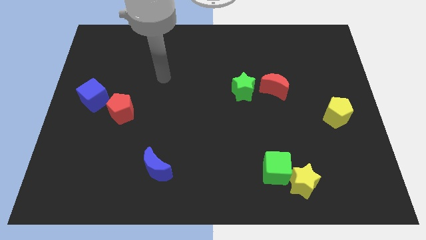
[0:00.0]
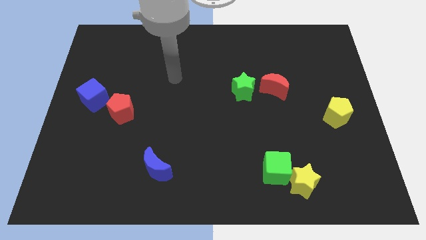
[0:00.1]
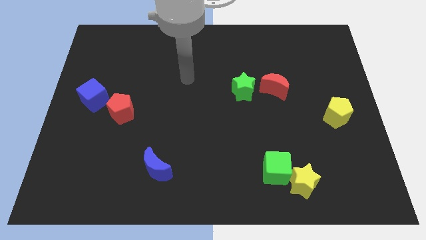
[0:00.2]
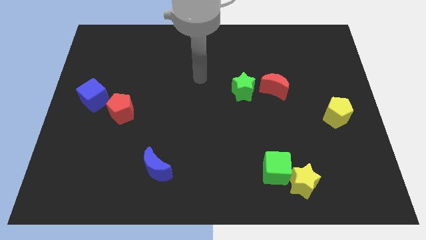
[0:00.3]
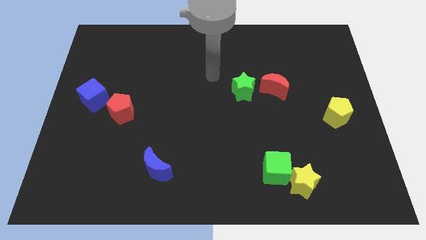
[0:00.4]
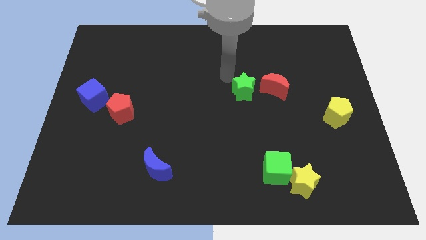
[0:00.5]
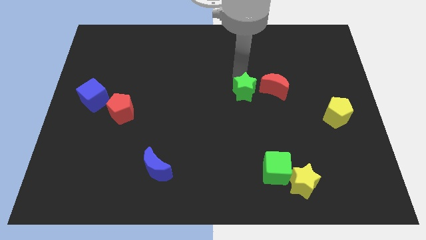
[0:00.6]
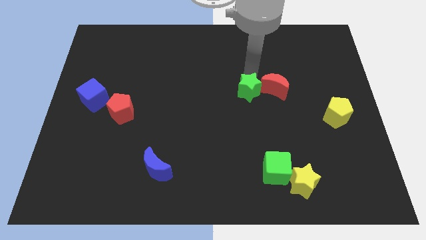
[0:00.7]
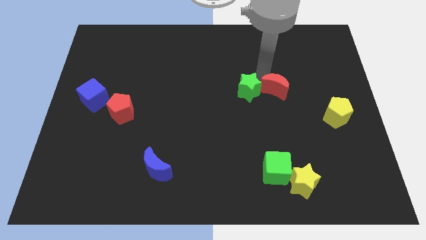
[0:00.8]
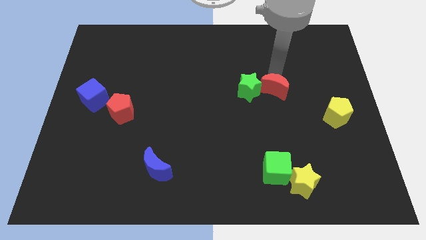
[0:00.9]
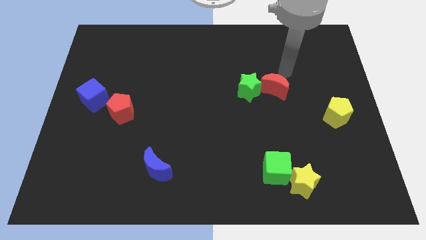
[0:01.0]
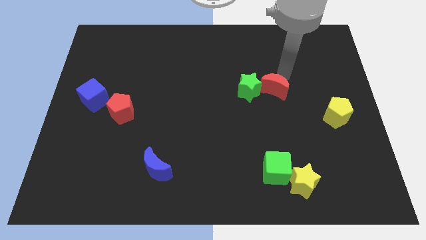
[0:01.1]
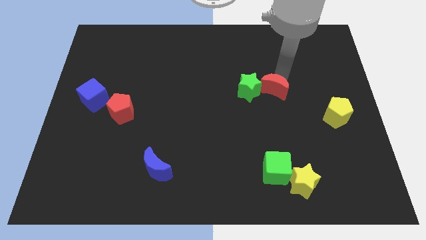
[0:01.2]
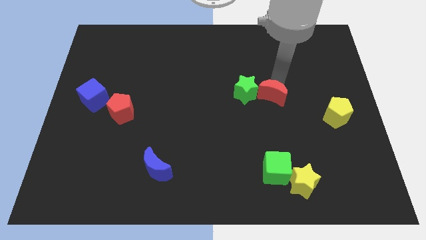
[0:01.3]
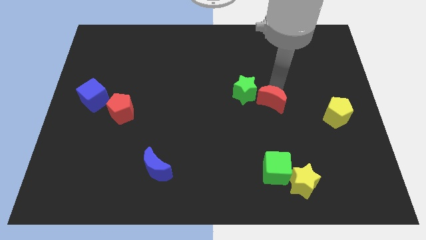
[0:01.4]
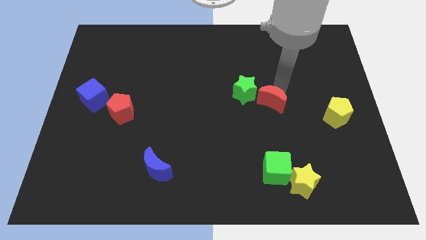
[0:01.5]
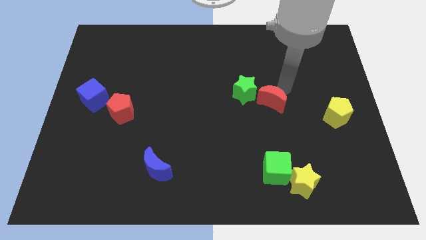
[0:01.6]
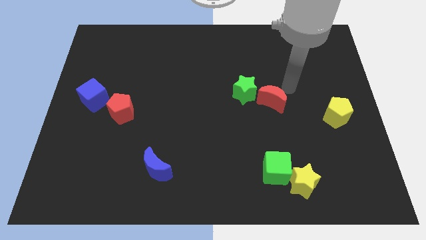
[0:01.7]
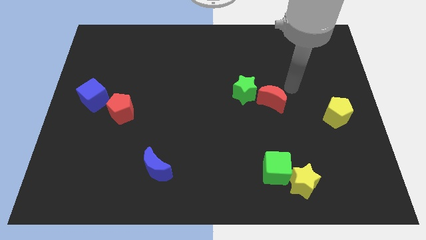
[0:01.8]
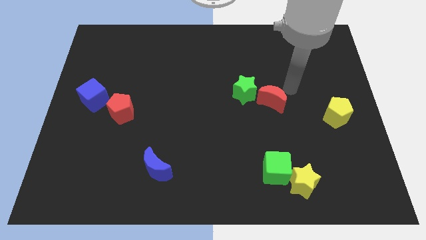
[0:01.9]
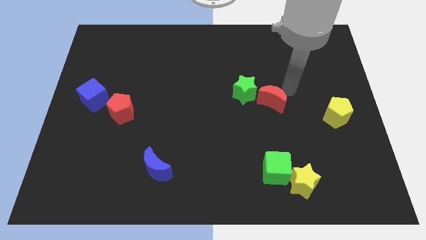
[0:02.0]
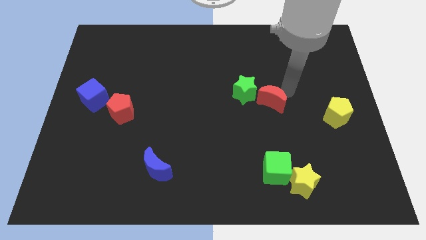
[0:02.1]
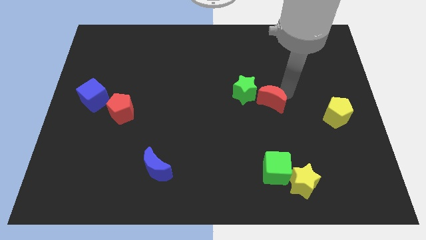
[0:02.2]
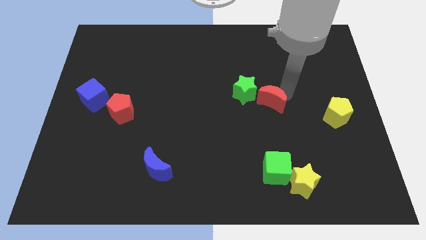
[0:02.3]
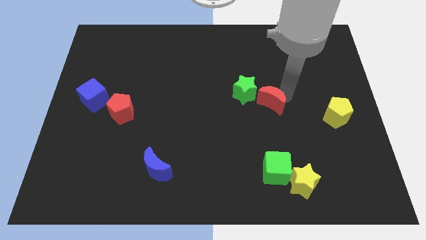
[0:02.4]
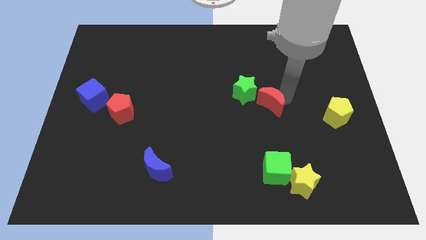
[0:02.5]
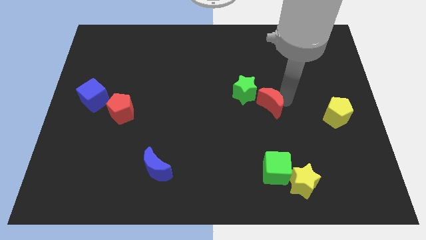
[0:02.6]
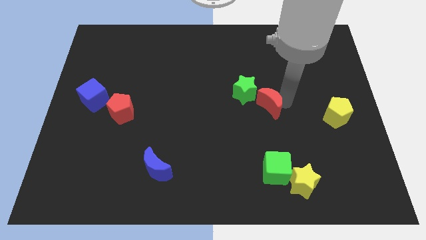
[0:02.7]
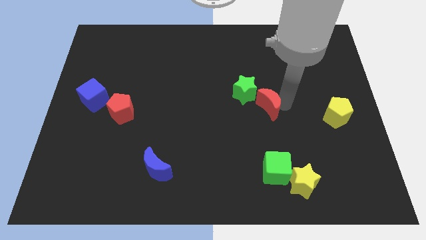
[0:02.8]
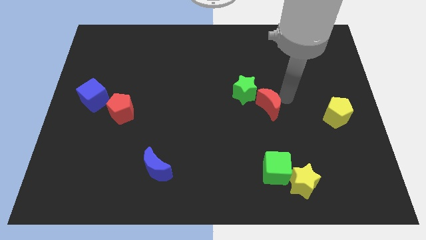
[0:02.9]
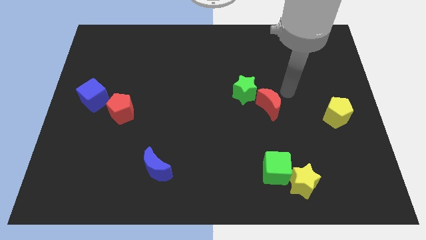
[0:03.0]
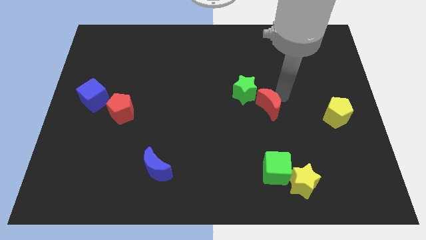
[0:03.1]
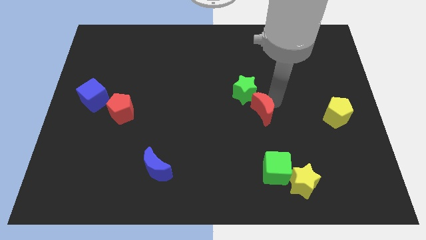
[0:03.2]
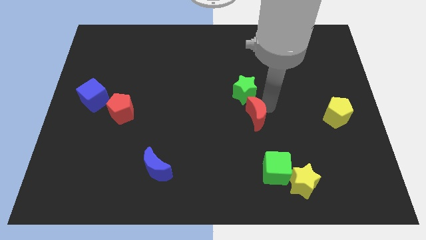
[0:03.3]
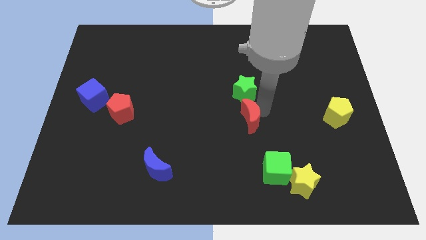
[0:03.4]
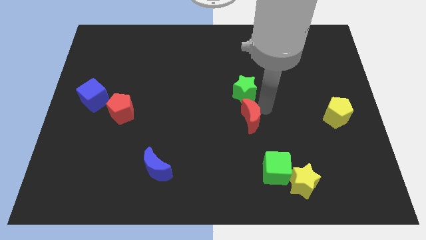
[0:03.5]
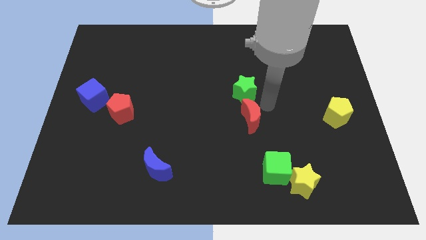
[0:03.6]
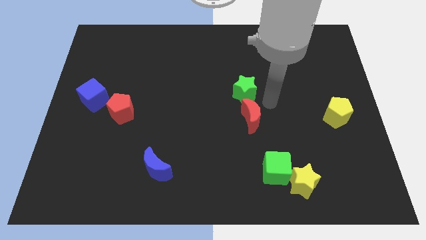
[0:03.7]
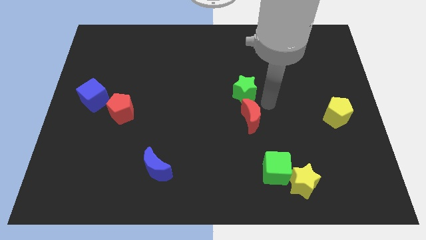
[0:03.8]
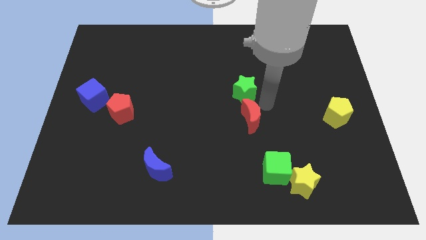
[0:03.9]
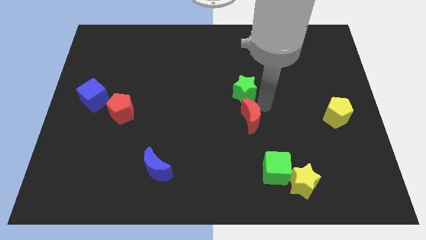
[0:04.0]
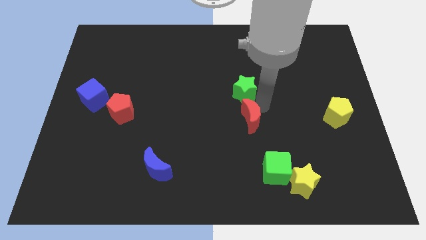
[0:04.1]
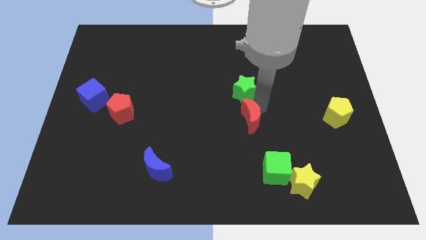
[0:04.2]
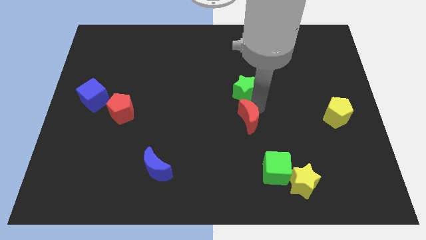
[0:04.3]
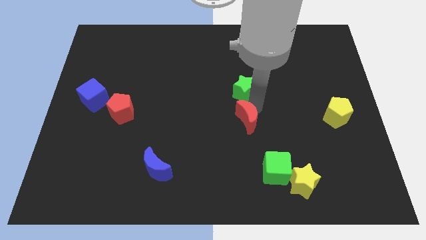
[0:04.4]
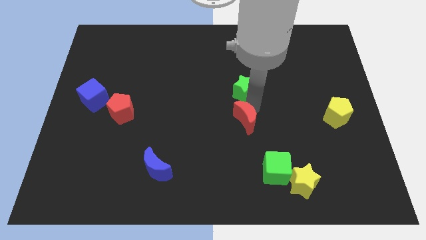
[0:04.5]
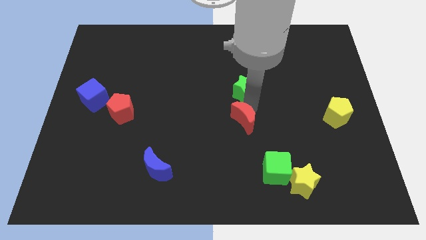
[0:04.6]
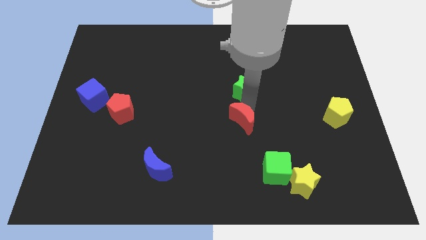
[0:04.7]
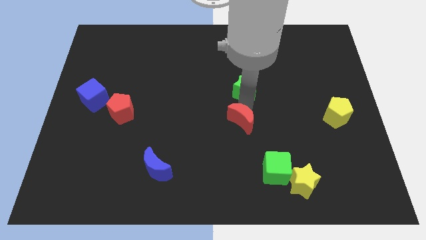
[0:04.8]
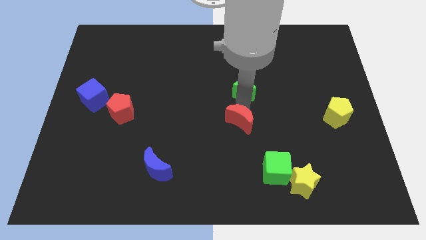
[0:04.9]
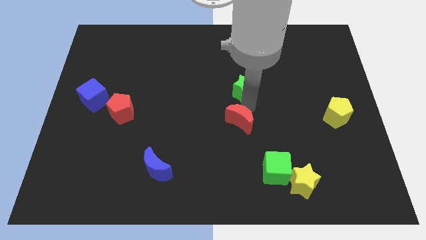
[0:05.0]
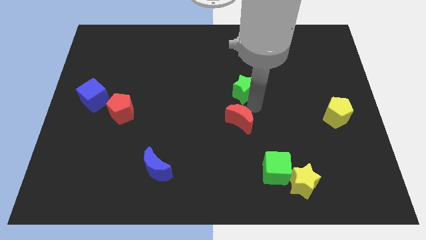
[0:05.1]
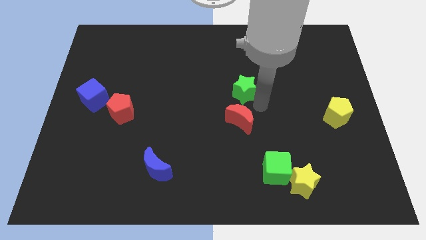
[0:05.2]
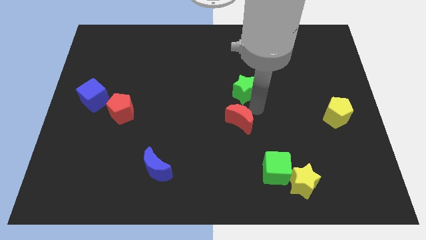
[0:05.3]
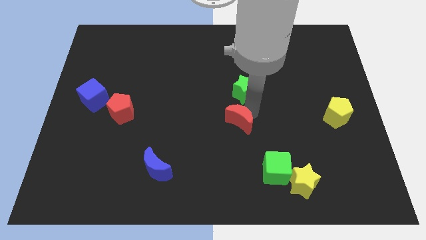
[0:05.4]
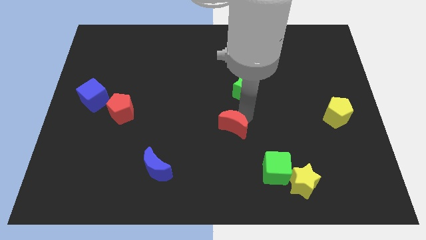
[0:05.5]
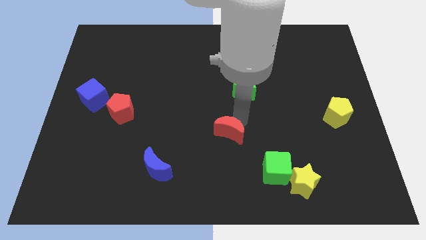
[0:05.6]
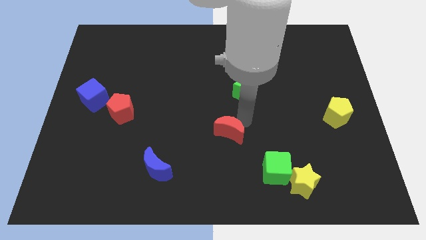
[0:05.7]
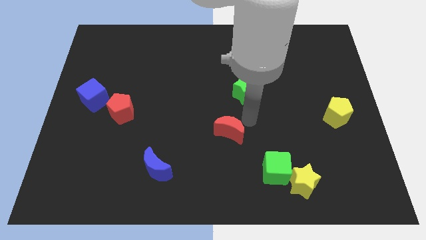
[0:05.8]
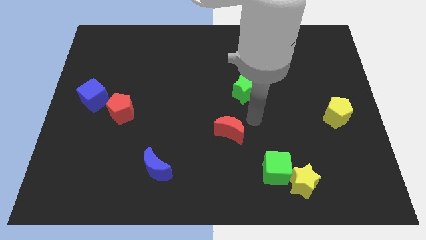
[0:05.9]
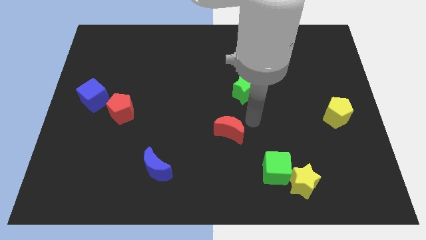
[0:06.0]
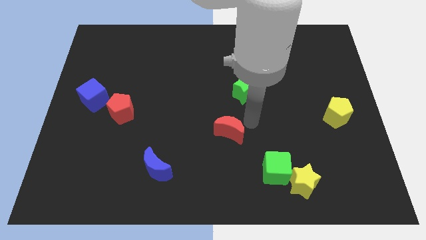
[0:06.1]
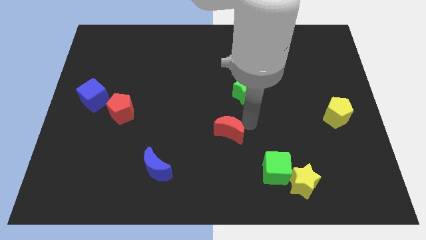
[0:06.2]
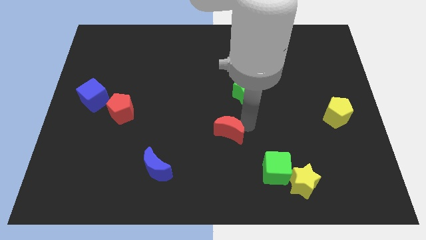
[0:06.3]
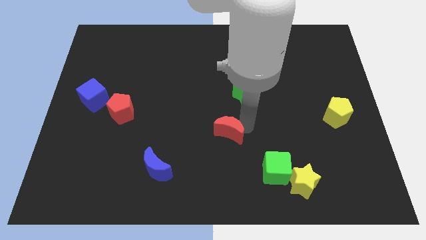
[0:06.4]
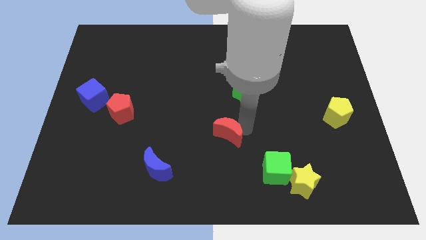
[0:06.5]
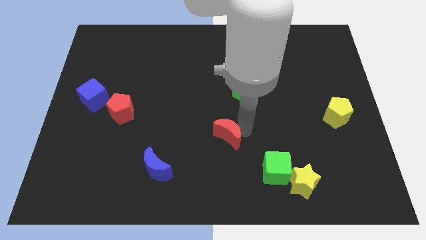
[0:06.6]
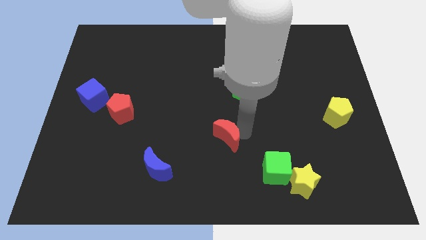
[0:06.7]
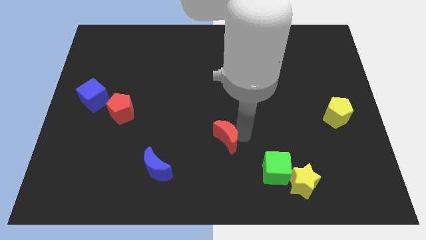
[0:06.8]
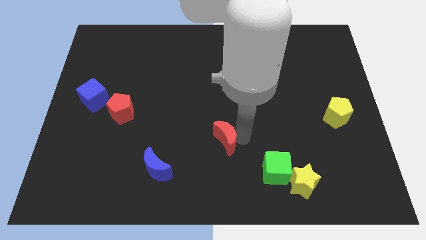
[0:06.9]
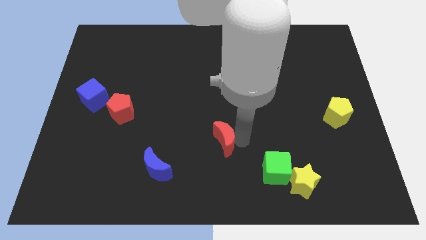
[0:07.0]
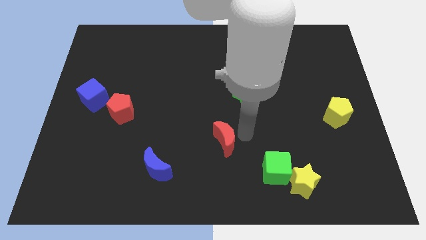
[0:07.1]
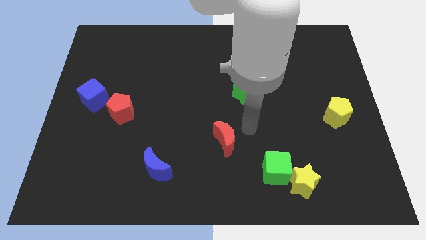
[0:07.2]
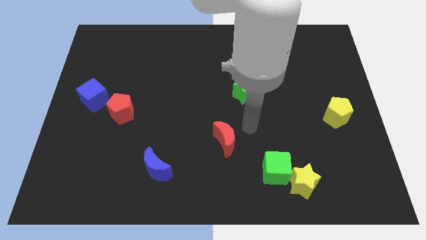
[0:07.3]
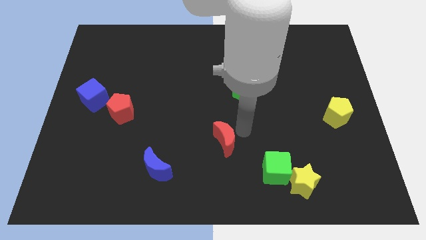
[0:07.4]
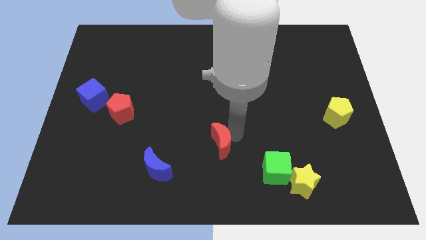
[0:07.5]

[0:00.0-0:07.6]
push the red moon downwards and left

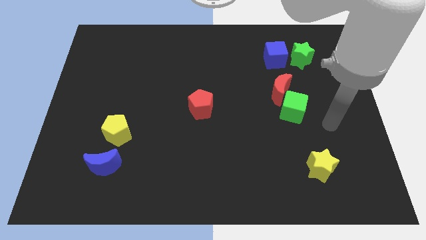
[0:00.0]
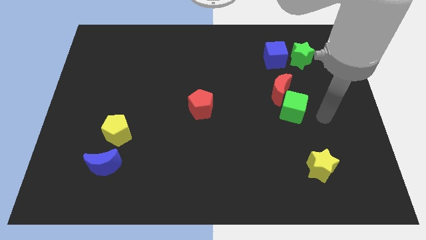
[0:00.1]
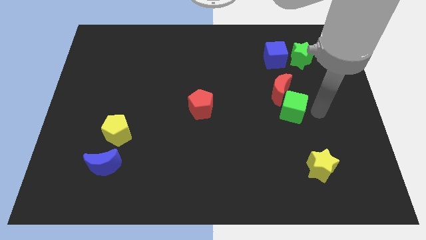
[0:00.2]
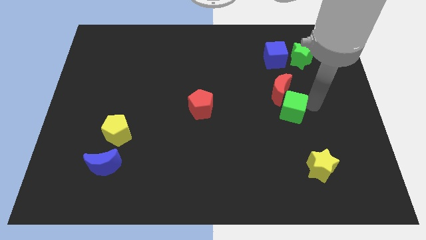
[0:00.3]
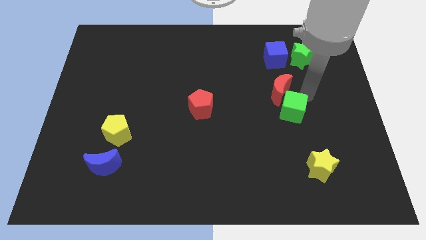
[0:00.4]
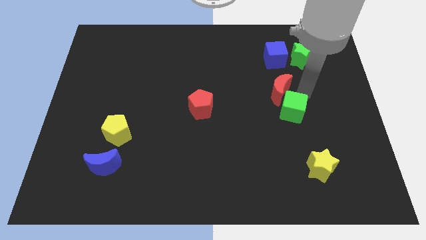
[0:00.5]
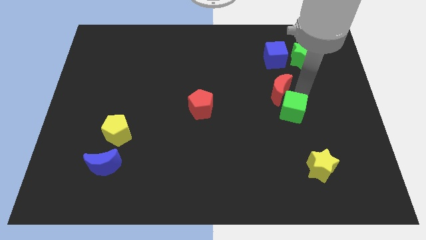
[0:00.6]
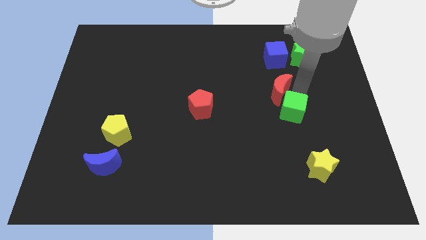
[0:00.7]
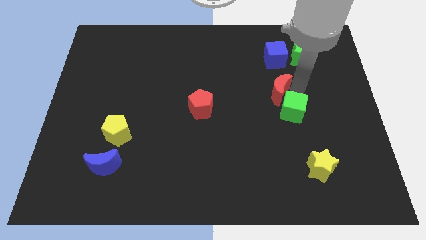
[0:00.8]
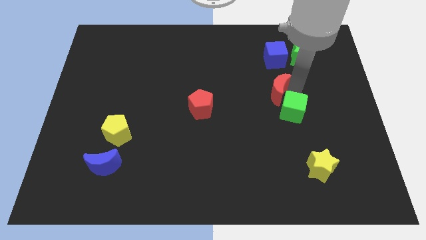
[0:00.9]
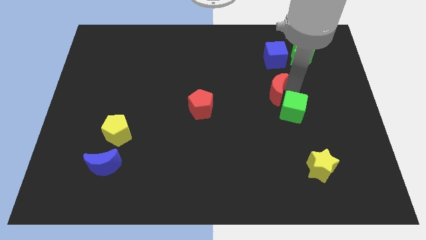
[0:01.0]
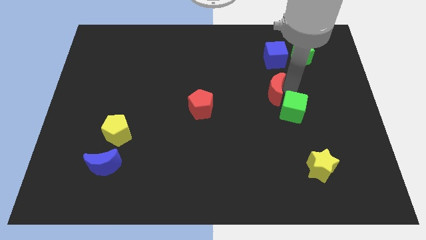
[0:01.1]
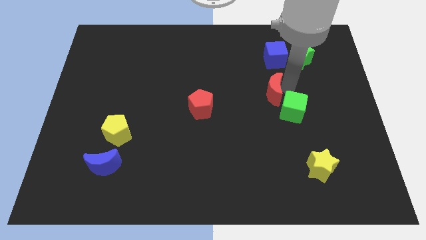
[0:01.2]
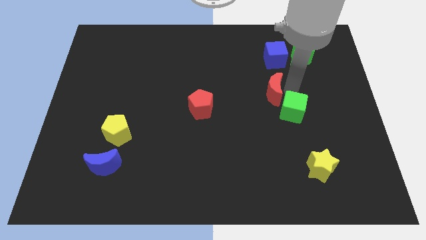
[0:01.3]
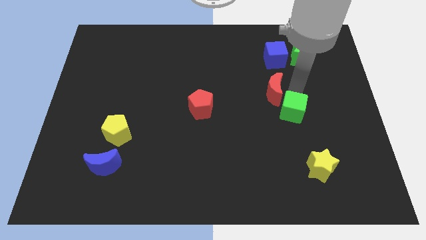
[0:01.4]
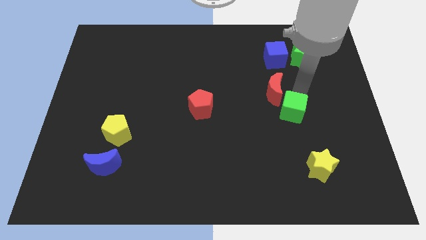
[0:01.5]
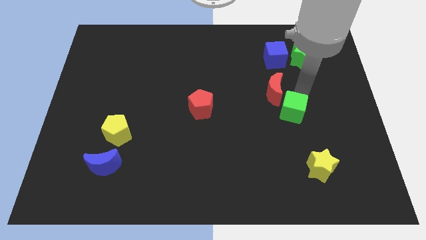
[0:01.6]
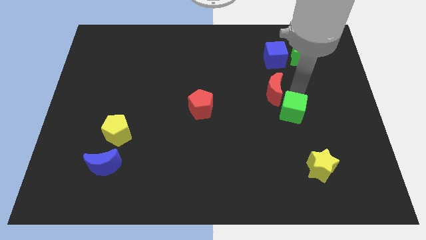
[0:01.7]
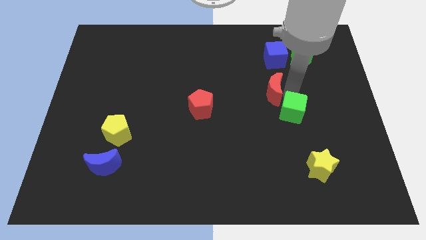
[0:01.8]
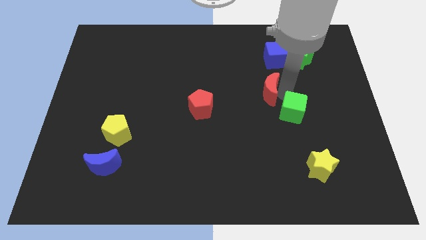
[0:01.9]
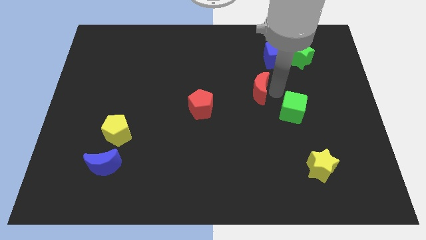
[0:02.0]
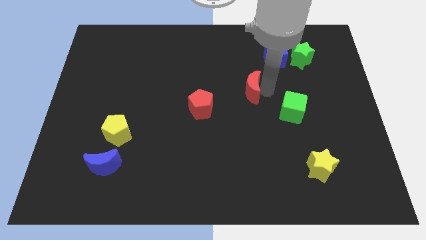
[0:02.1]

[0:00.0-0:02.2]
slide the red moon left somewhat
